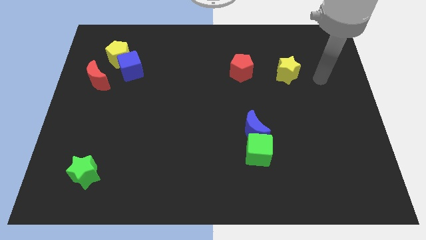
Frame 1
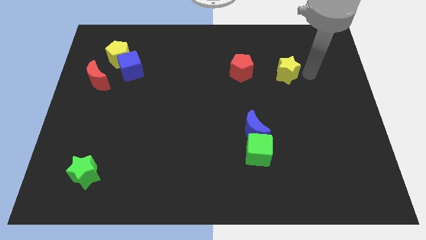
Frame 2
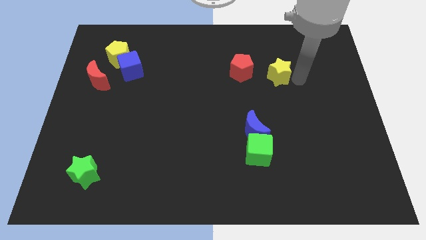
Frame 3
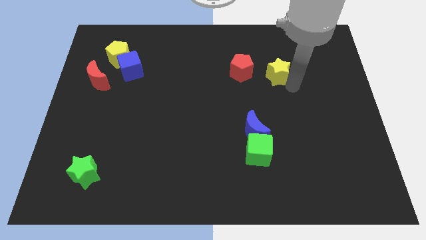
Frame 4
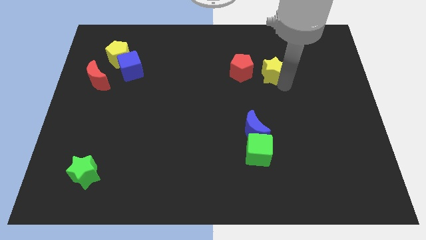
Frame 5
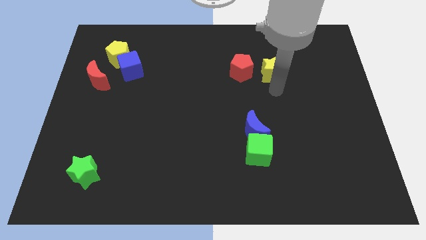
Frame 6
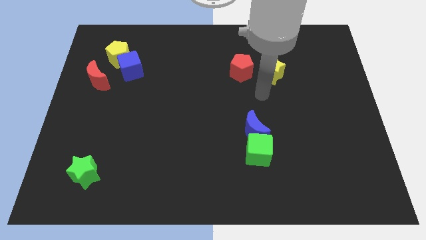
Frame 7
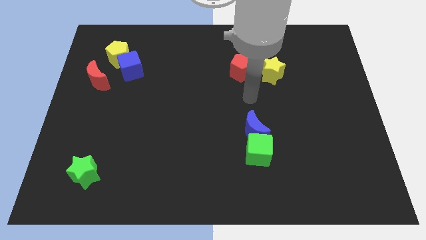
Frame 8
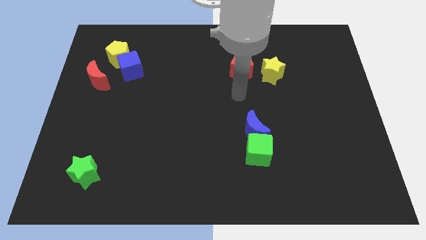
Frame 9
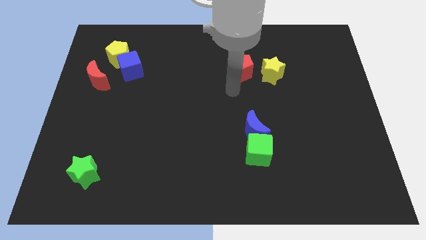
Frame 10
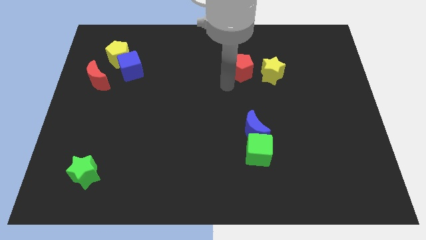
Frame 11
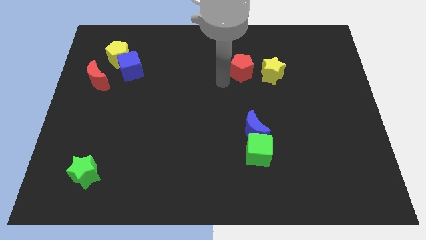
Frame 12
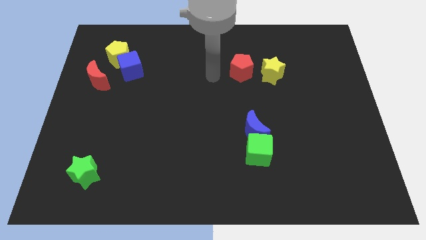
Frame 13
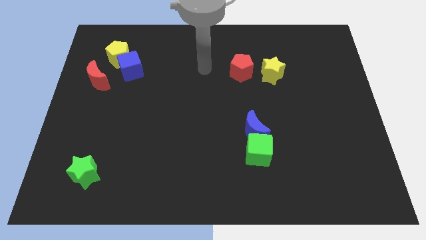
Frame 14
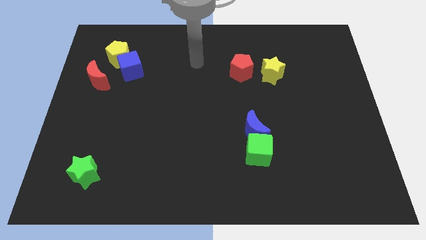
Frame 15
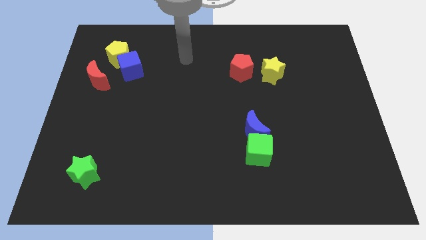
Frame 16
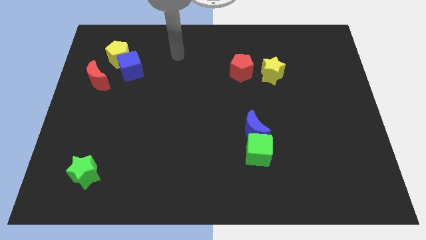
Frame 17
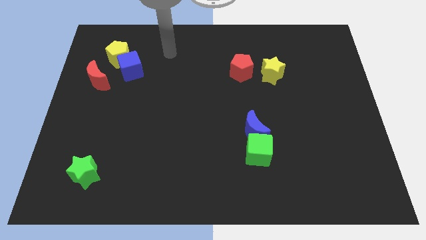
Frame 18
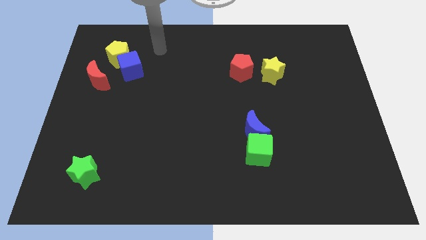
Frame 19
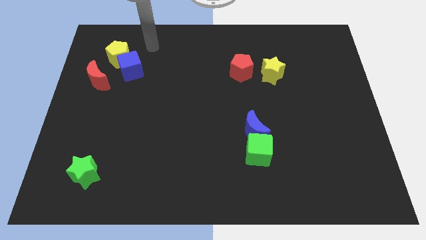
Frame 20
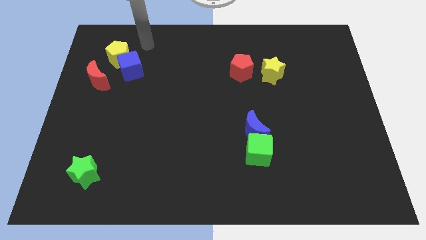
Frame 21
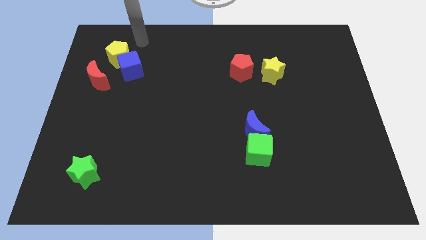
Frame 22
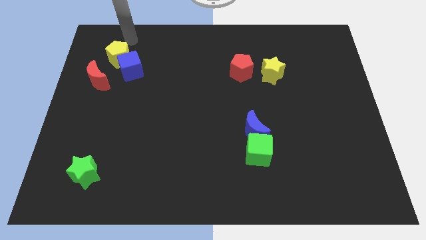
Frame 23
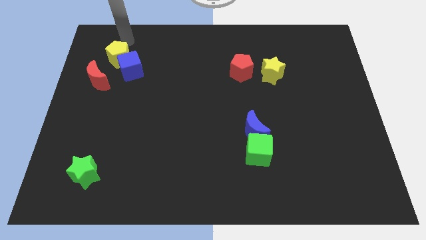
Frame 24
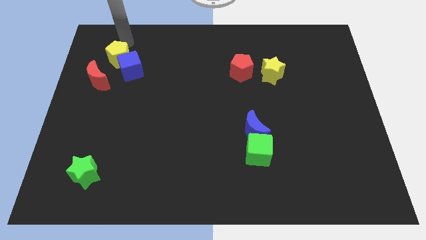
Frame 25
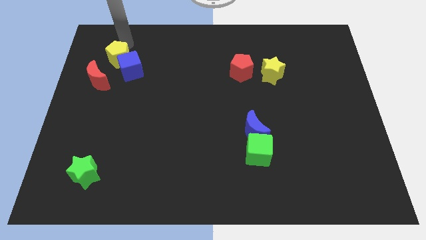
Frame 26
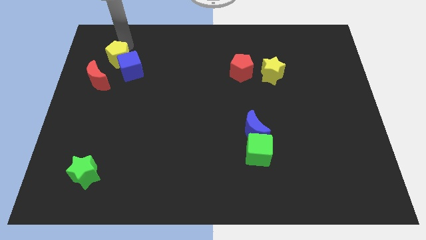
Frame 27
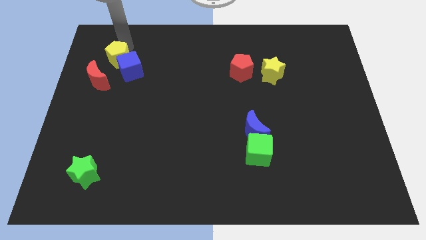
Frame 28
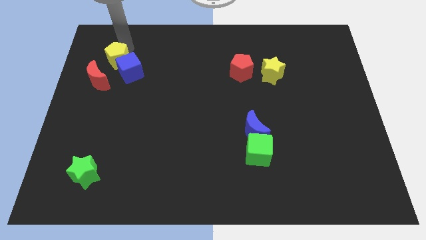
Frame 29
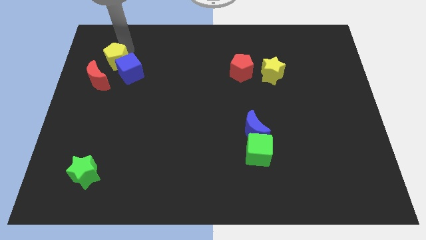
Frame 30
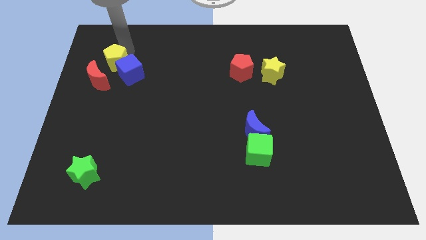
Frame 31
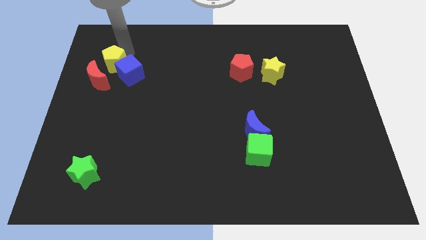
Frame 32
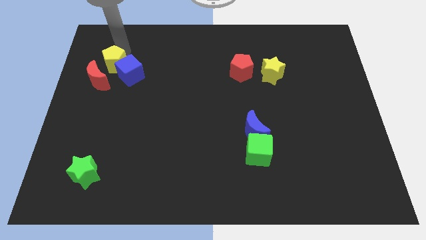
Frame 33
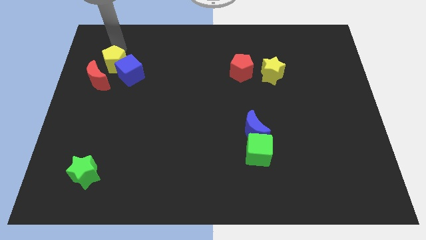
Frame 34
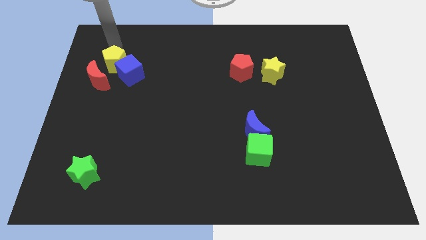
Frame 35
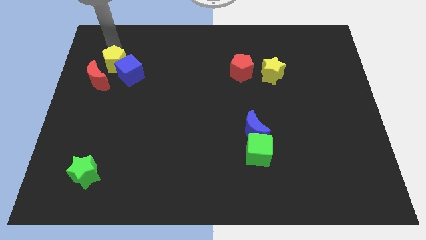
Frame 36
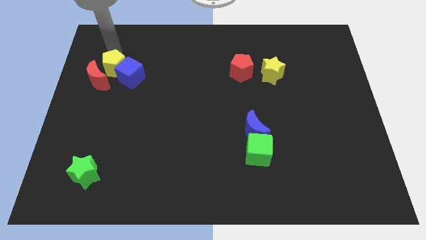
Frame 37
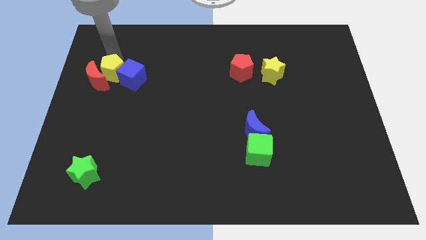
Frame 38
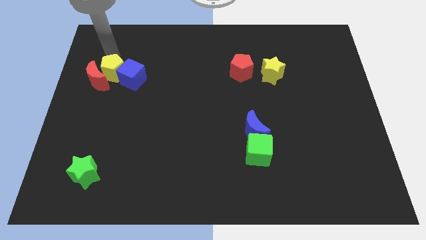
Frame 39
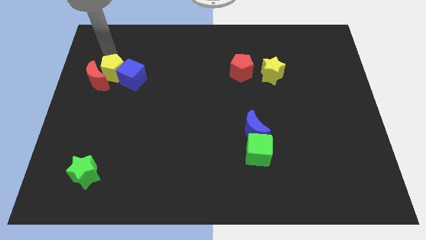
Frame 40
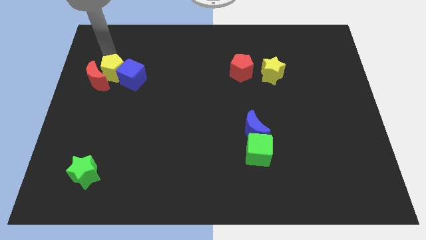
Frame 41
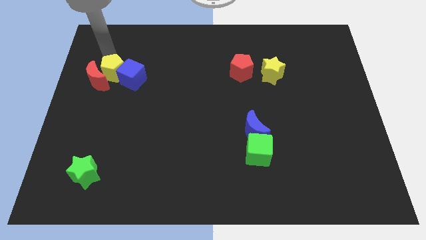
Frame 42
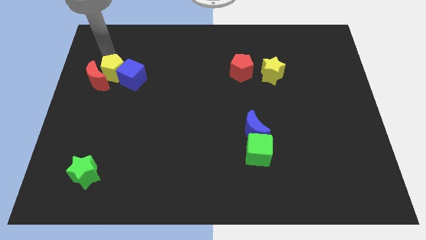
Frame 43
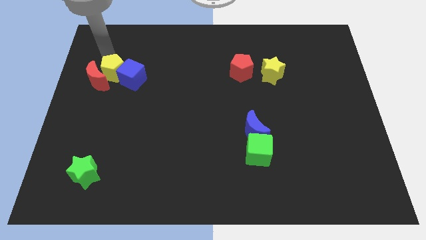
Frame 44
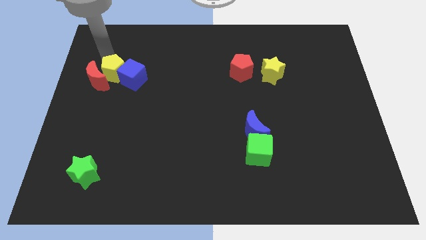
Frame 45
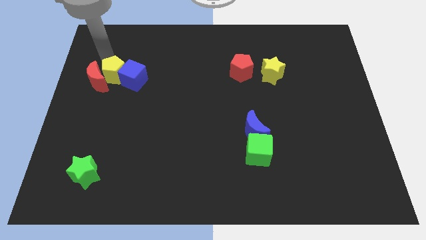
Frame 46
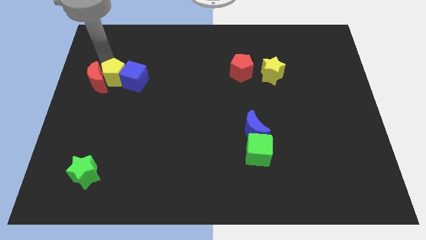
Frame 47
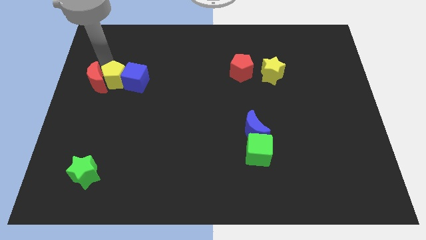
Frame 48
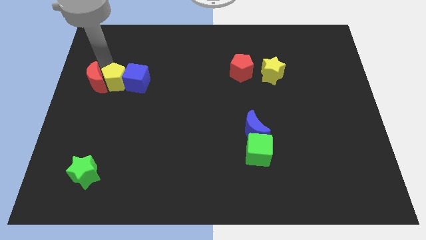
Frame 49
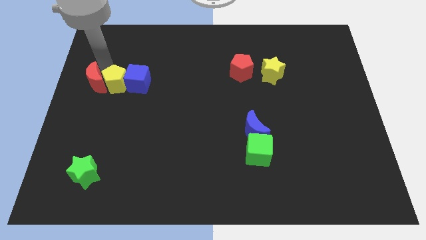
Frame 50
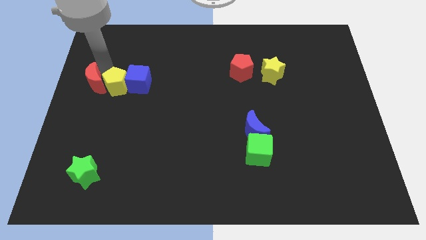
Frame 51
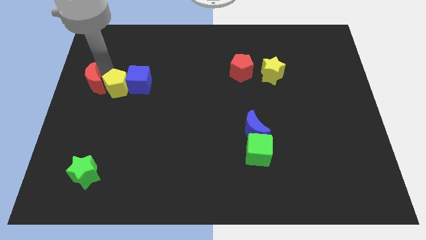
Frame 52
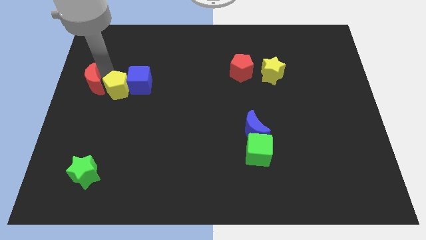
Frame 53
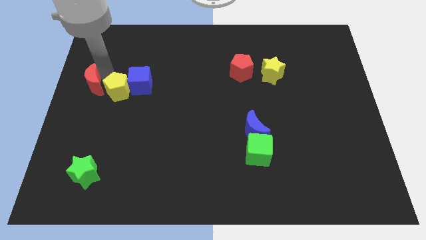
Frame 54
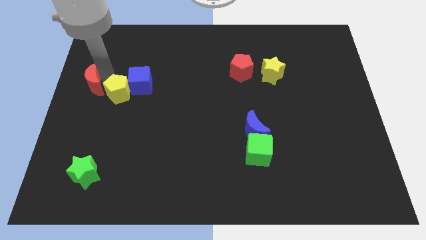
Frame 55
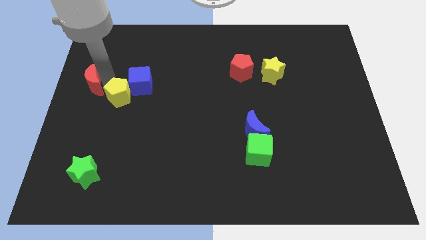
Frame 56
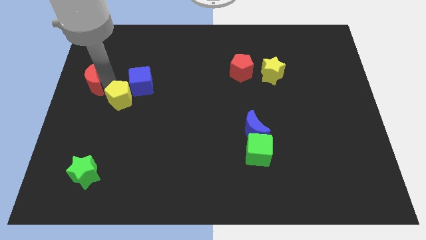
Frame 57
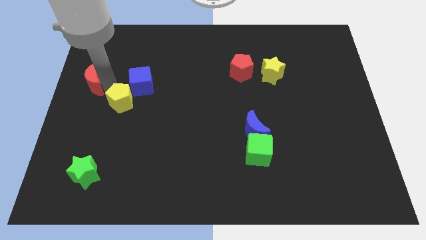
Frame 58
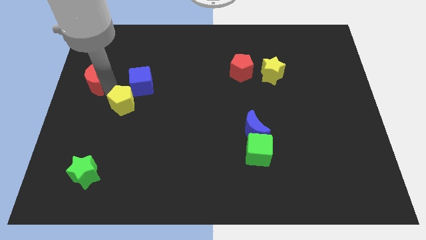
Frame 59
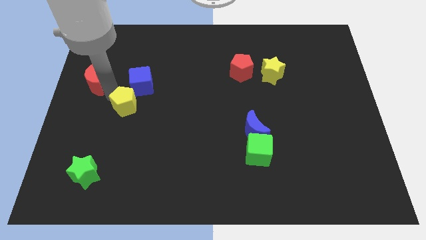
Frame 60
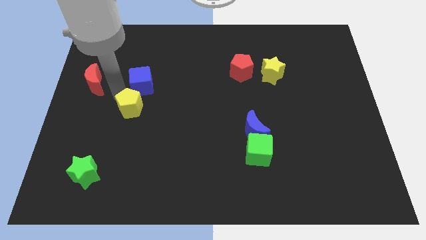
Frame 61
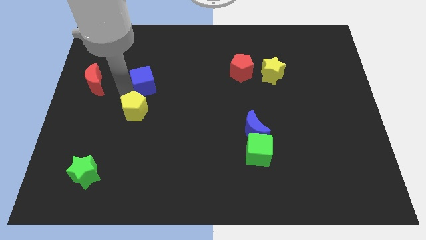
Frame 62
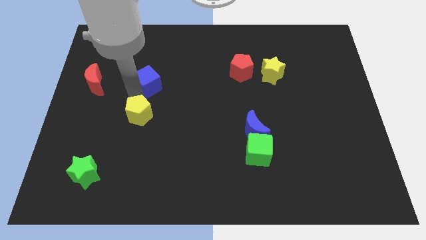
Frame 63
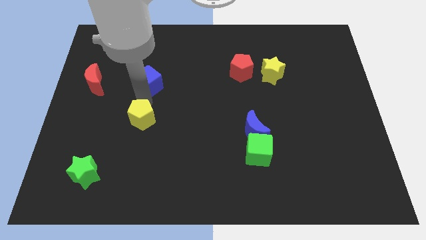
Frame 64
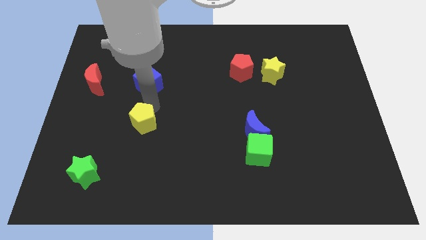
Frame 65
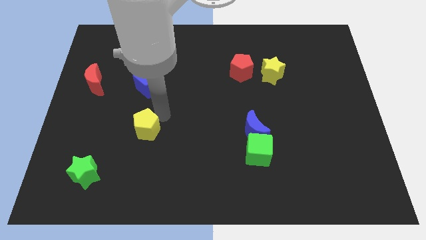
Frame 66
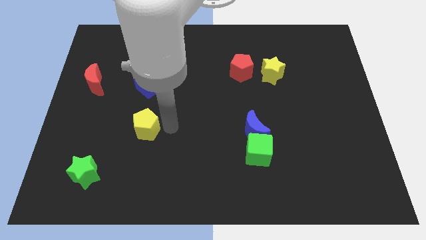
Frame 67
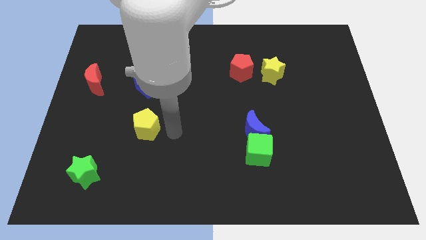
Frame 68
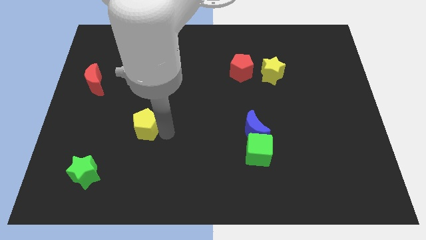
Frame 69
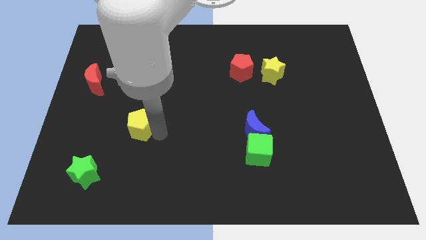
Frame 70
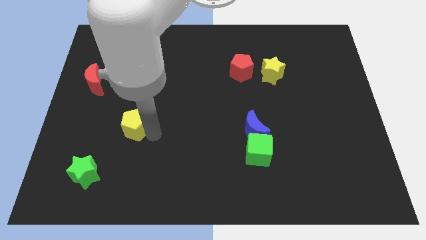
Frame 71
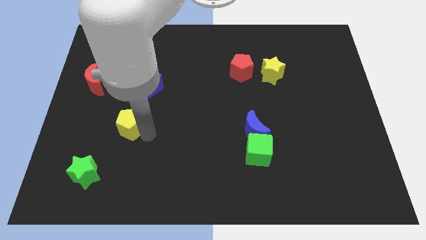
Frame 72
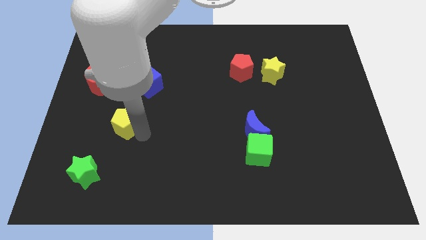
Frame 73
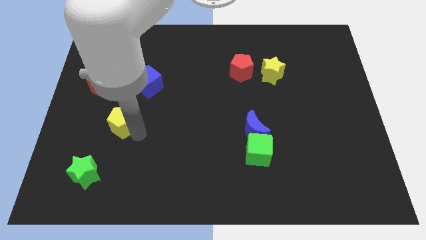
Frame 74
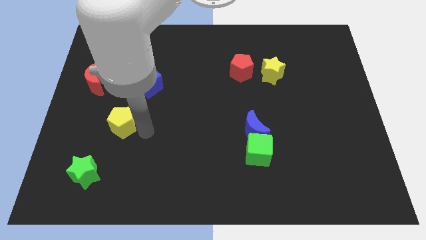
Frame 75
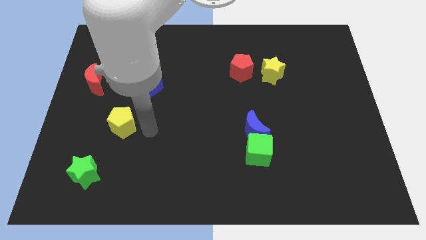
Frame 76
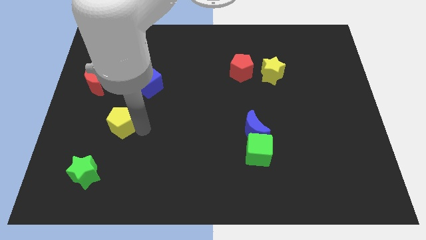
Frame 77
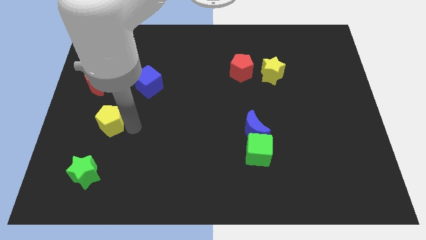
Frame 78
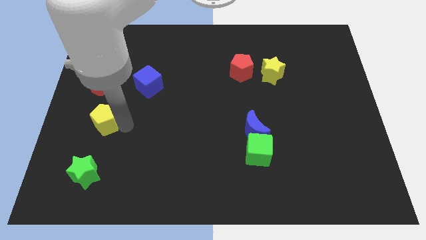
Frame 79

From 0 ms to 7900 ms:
put the yellow pentagon below the red moon
